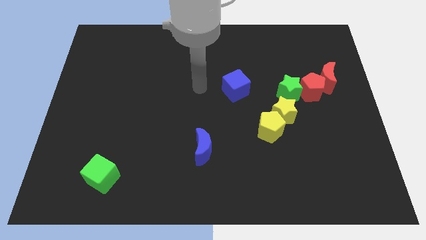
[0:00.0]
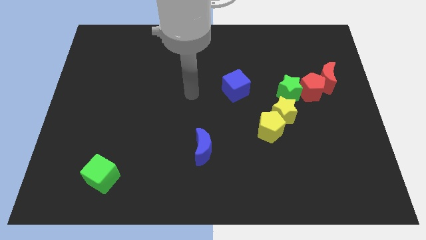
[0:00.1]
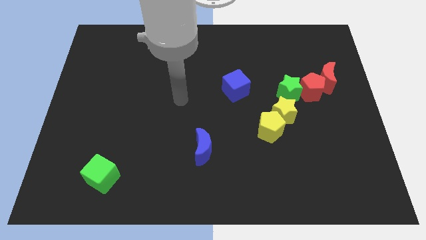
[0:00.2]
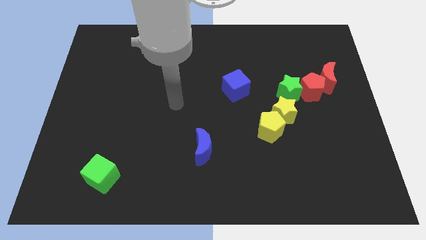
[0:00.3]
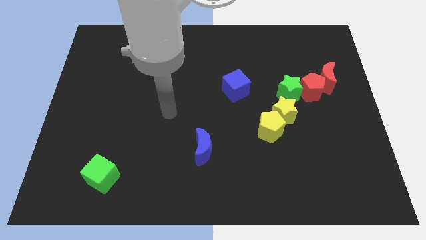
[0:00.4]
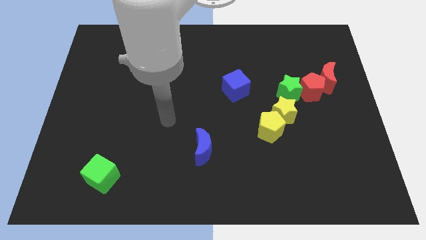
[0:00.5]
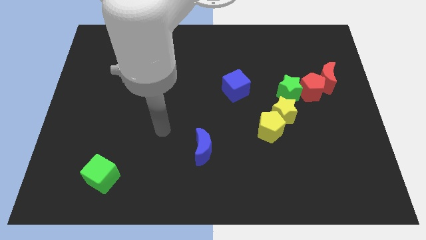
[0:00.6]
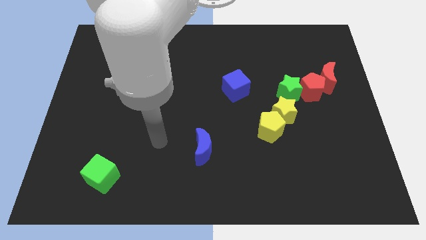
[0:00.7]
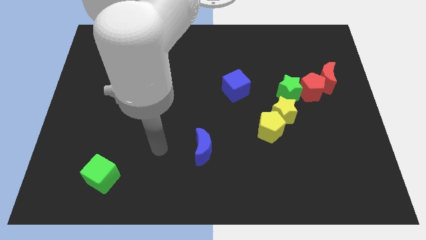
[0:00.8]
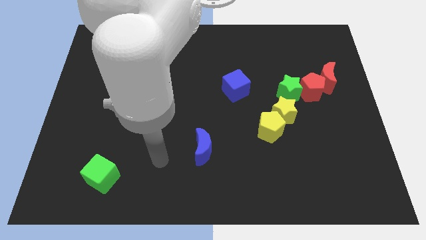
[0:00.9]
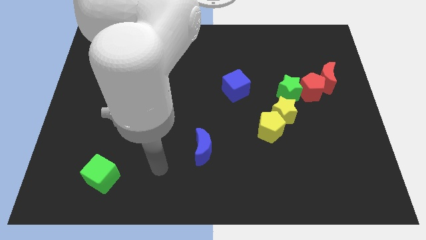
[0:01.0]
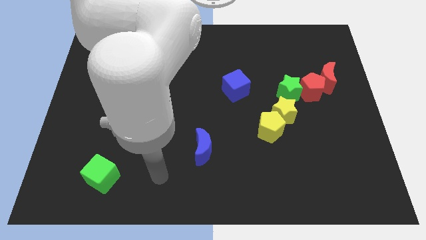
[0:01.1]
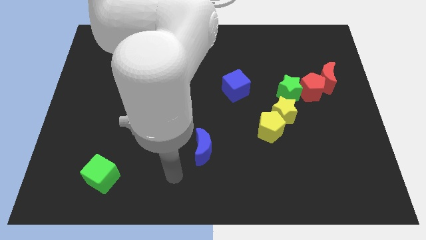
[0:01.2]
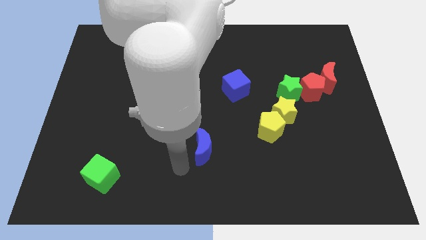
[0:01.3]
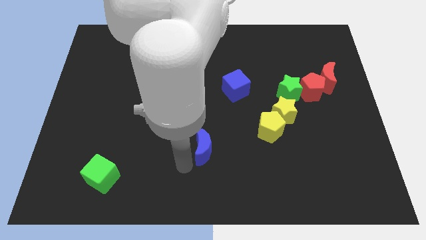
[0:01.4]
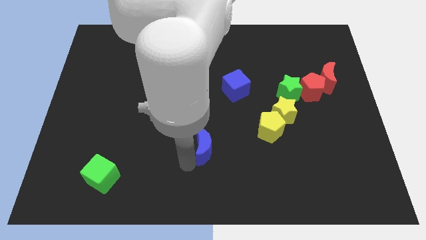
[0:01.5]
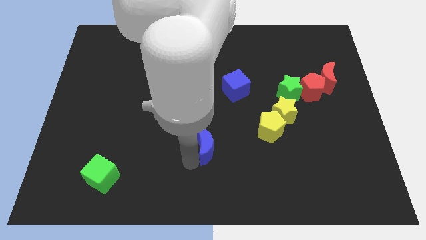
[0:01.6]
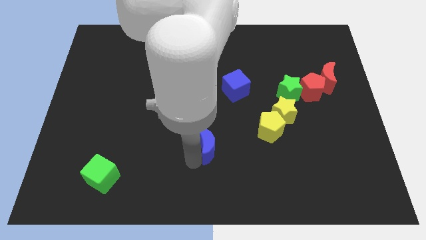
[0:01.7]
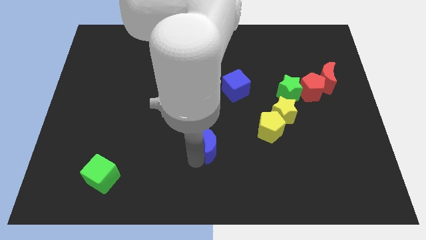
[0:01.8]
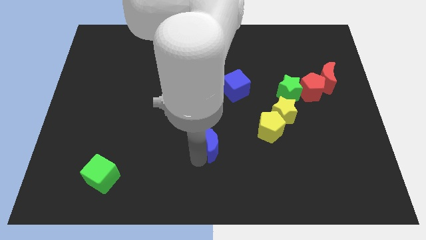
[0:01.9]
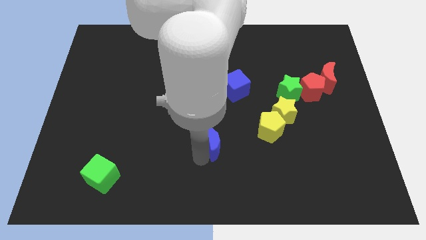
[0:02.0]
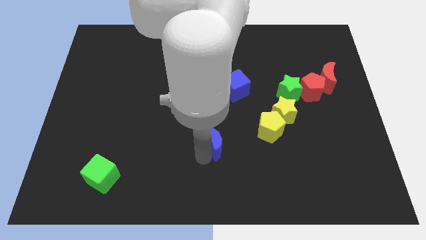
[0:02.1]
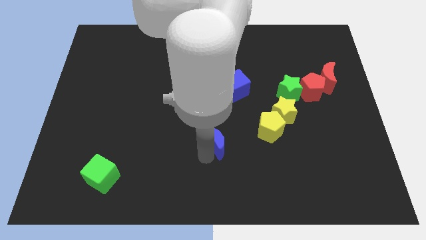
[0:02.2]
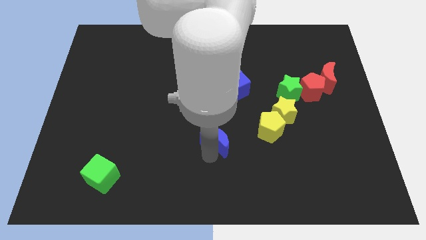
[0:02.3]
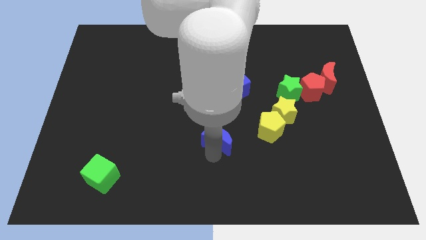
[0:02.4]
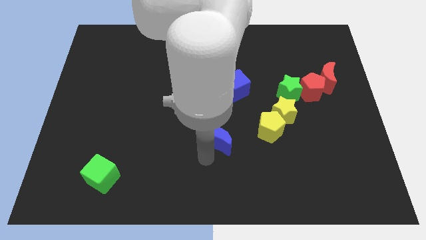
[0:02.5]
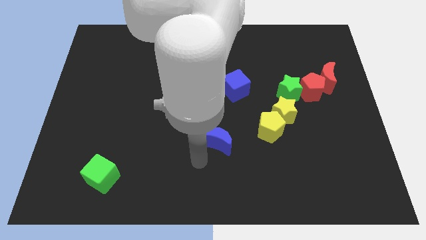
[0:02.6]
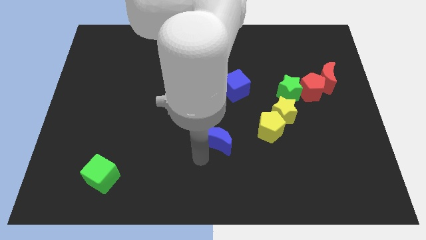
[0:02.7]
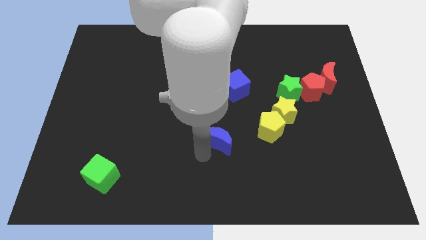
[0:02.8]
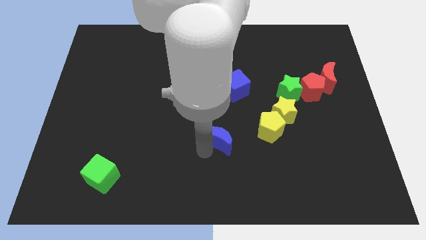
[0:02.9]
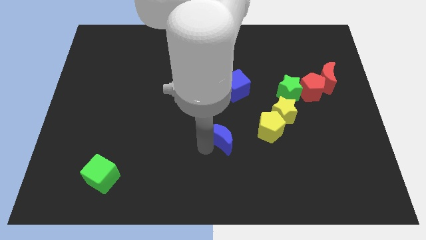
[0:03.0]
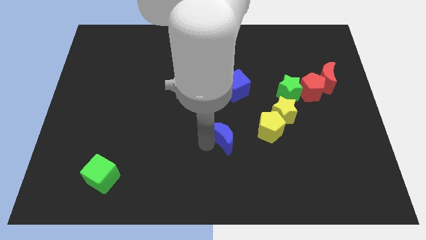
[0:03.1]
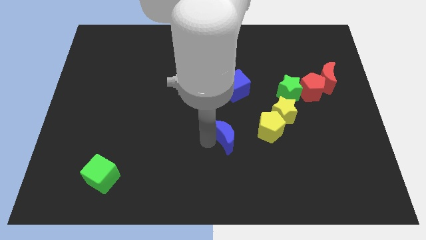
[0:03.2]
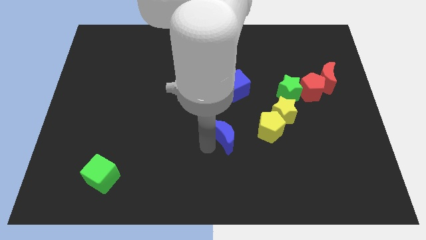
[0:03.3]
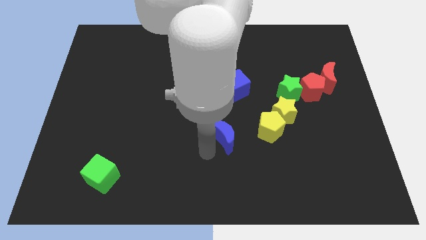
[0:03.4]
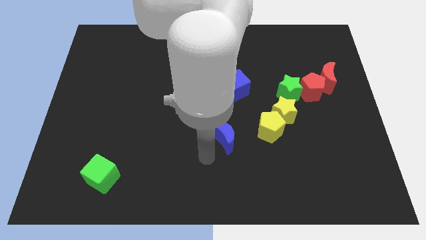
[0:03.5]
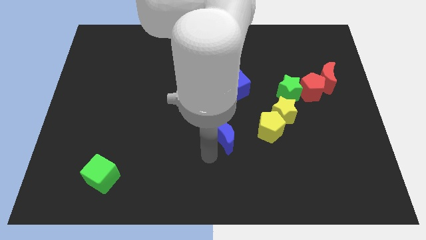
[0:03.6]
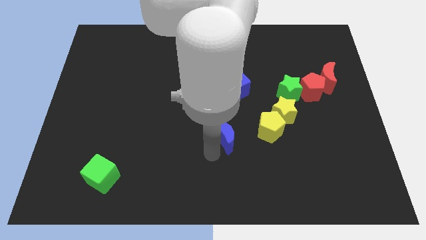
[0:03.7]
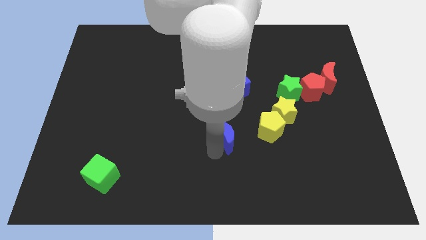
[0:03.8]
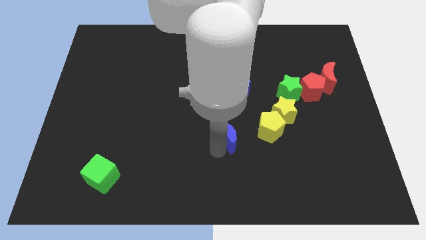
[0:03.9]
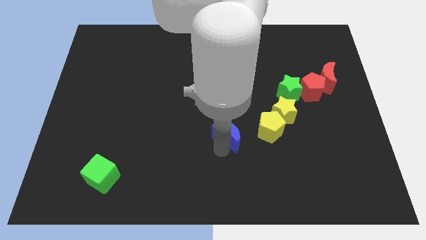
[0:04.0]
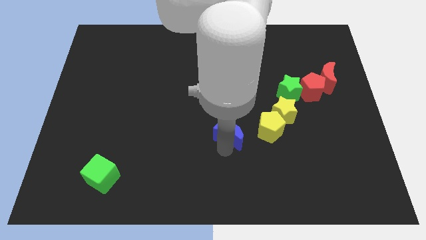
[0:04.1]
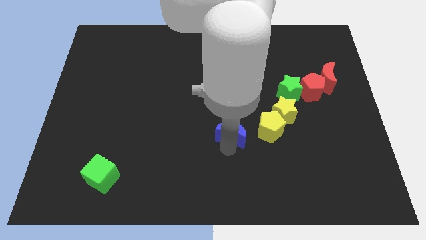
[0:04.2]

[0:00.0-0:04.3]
slightly push the blue moon up and then right

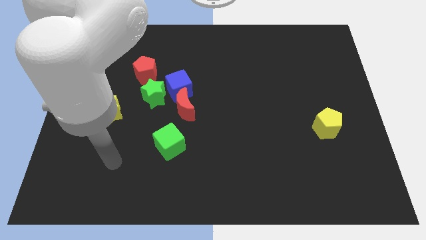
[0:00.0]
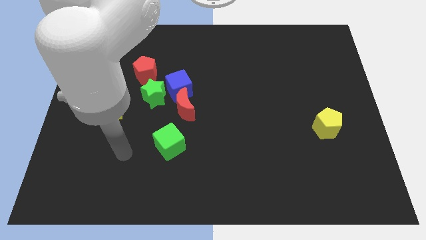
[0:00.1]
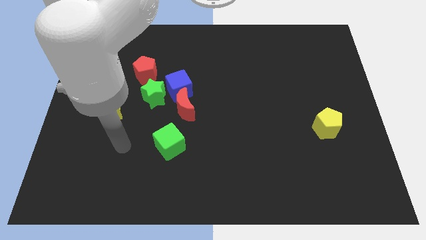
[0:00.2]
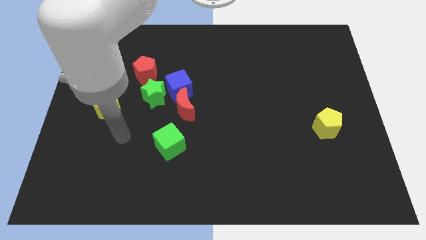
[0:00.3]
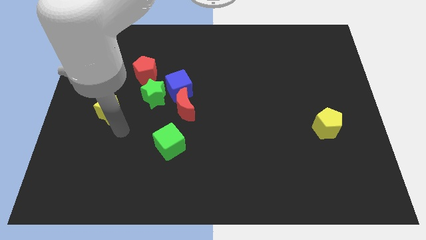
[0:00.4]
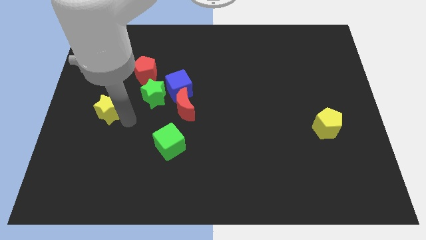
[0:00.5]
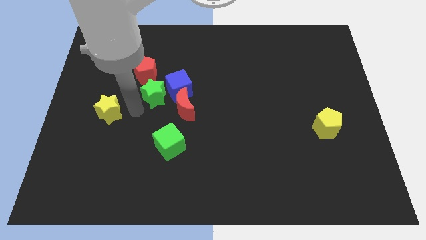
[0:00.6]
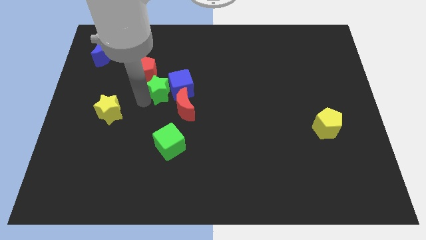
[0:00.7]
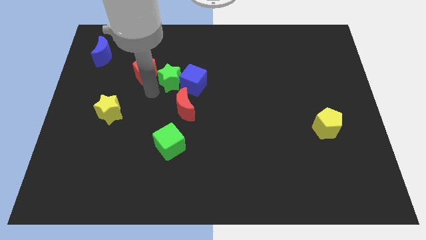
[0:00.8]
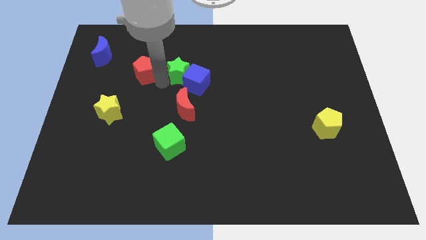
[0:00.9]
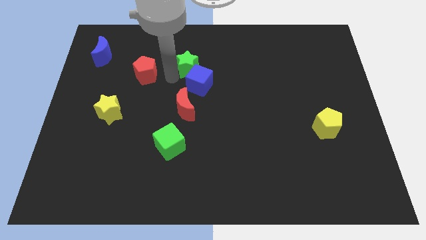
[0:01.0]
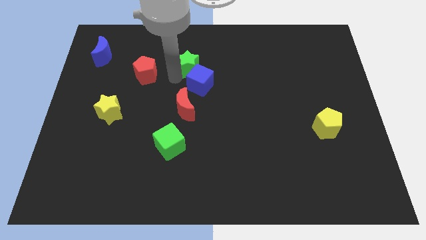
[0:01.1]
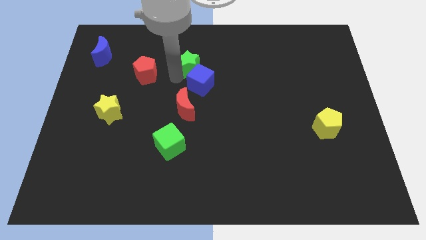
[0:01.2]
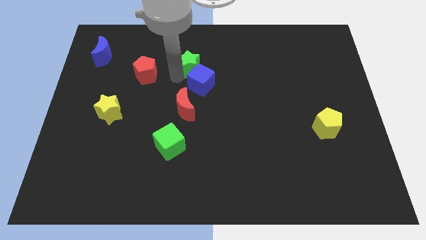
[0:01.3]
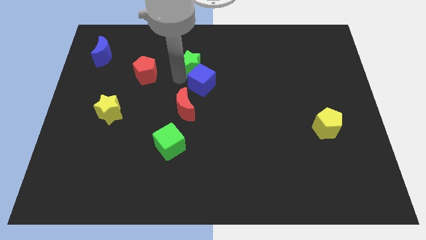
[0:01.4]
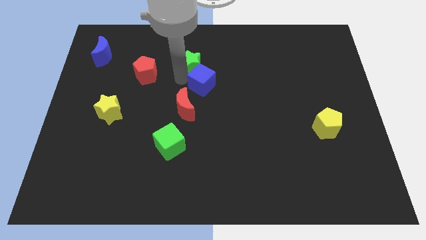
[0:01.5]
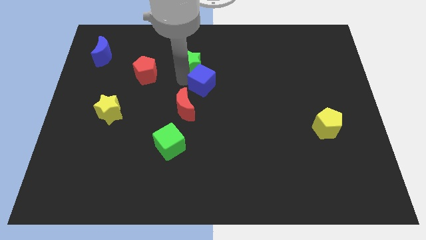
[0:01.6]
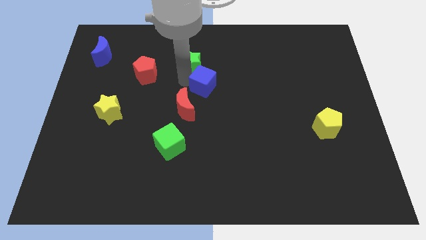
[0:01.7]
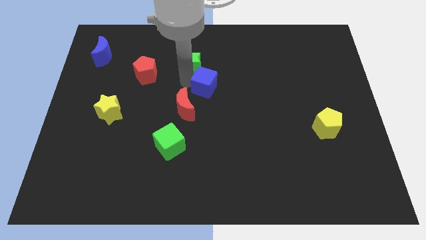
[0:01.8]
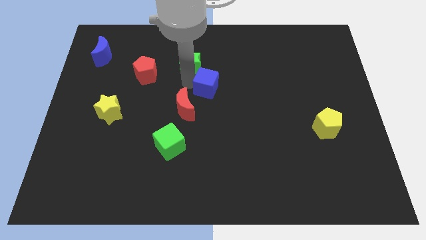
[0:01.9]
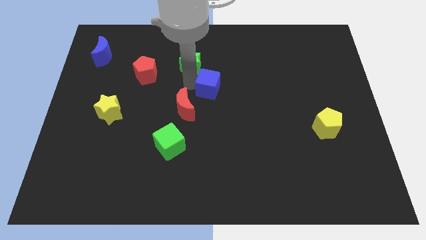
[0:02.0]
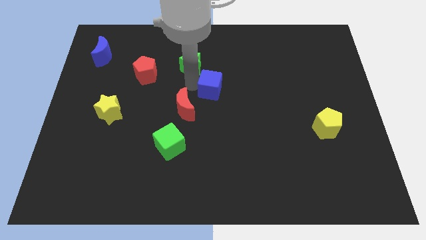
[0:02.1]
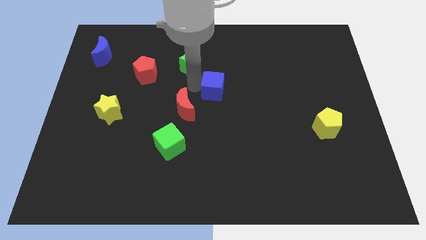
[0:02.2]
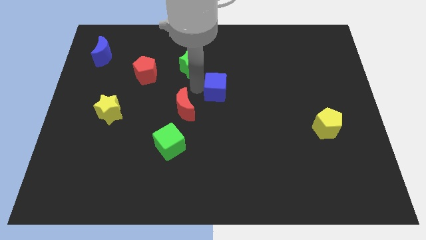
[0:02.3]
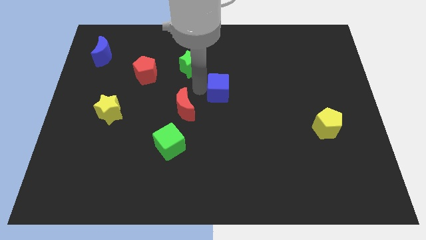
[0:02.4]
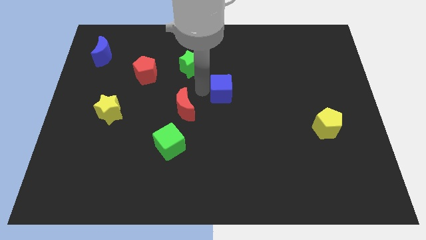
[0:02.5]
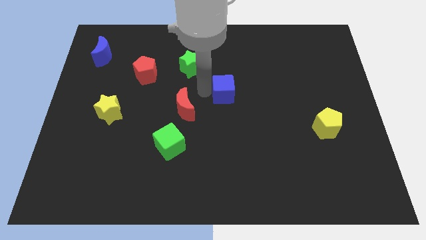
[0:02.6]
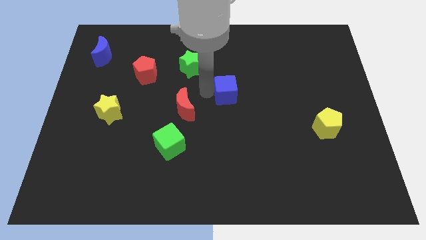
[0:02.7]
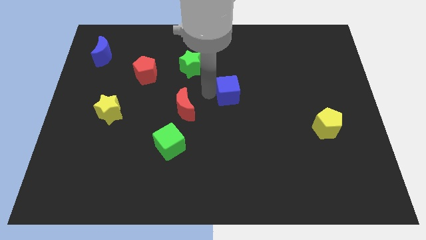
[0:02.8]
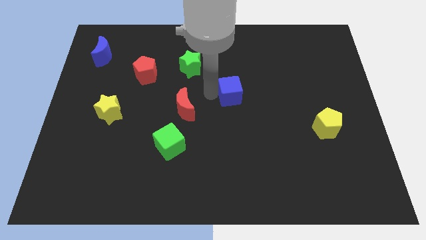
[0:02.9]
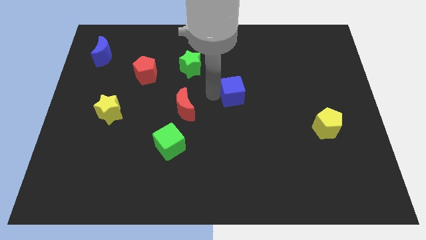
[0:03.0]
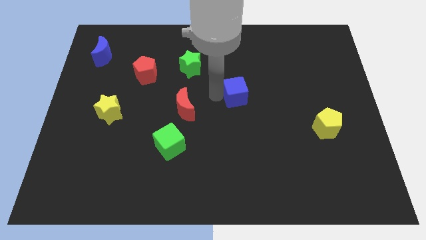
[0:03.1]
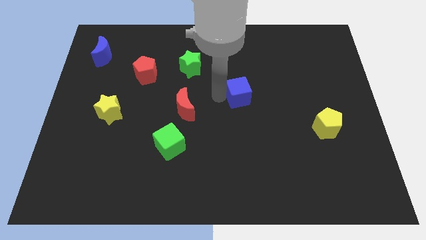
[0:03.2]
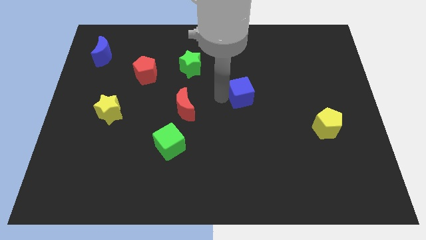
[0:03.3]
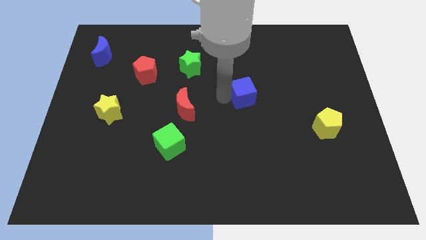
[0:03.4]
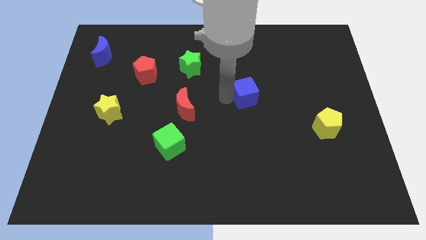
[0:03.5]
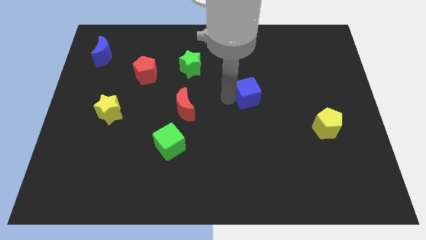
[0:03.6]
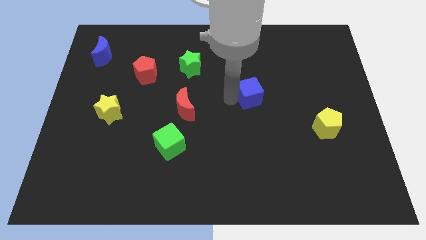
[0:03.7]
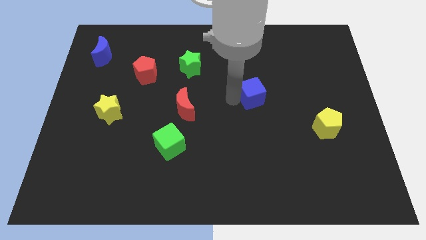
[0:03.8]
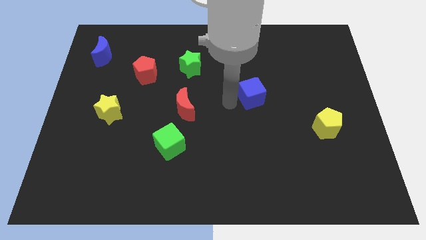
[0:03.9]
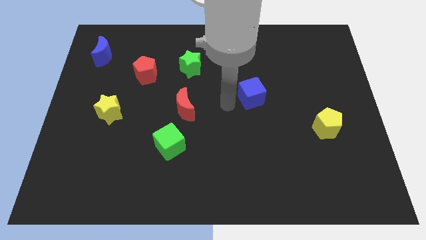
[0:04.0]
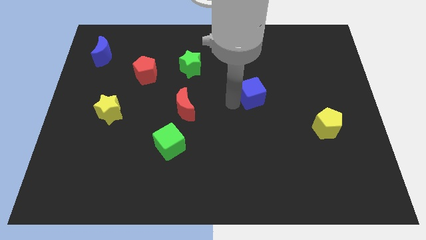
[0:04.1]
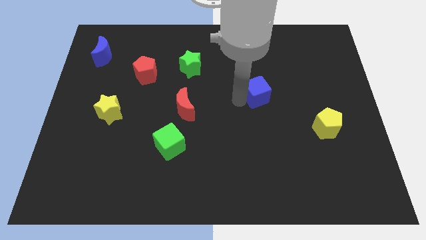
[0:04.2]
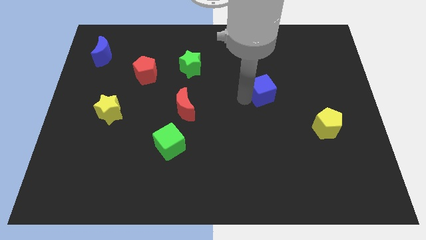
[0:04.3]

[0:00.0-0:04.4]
slide the blue cube to the right
